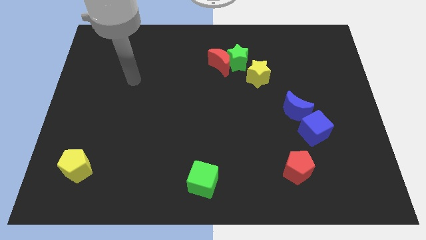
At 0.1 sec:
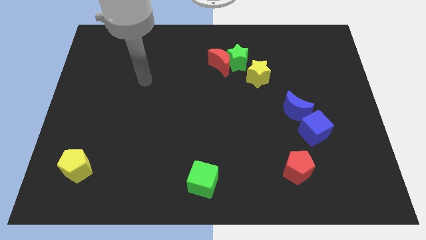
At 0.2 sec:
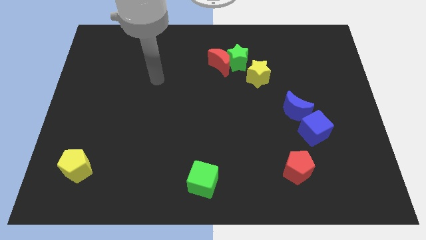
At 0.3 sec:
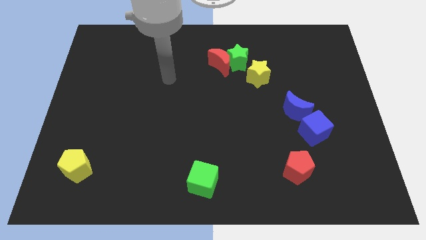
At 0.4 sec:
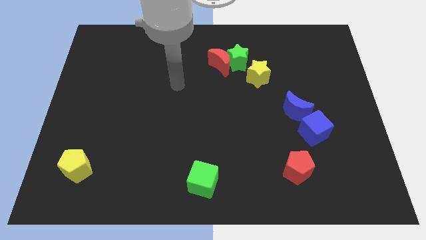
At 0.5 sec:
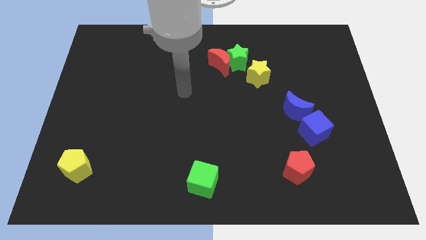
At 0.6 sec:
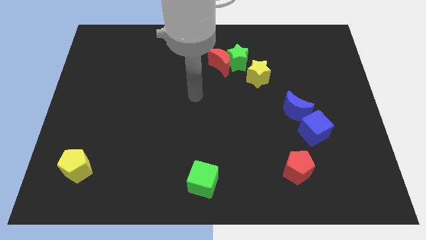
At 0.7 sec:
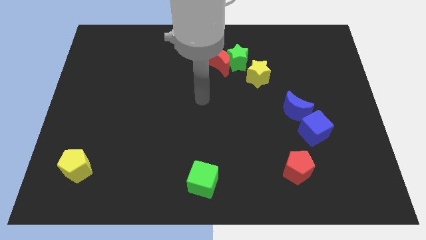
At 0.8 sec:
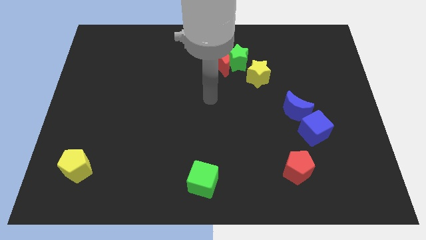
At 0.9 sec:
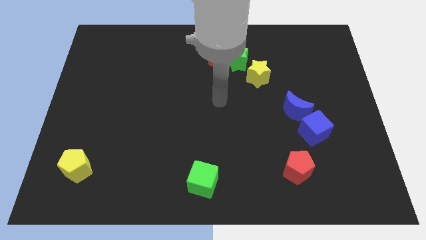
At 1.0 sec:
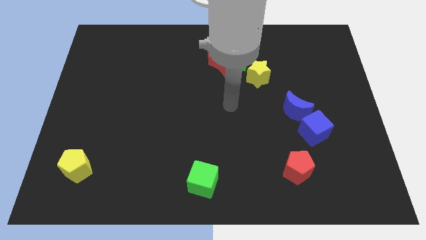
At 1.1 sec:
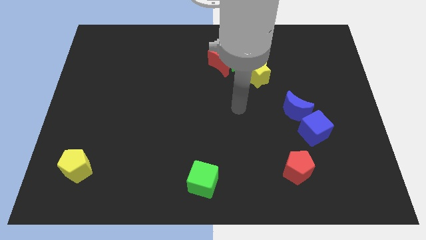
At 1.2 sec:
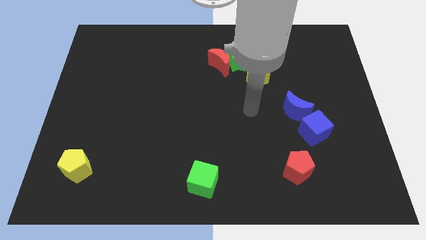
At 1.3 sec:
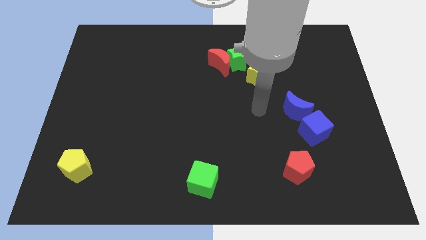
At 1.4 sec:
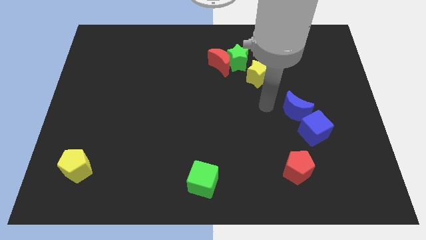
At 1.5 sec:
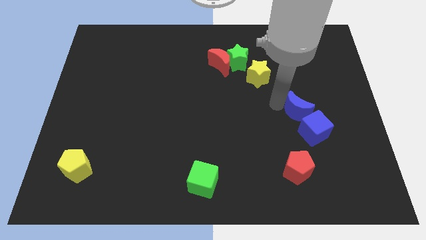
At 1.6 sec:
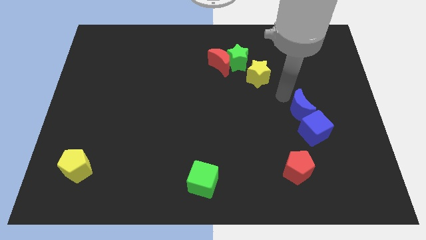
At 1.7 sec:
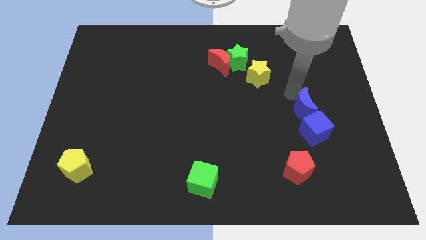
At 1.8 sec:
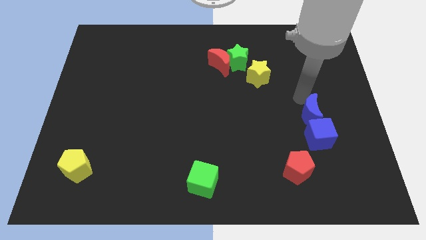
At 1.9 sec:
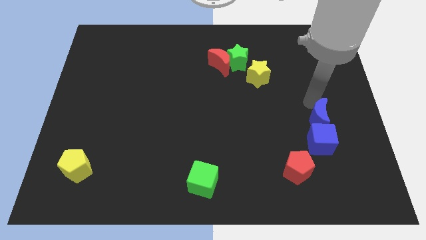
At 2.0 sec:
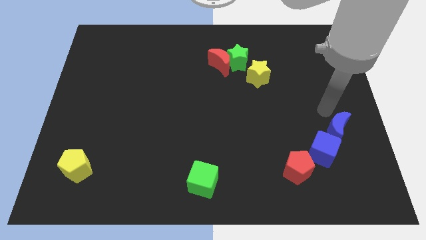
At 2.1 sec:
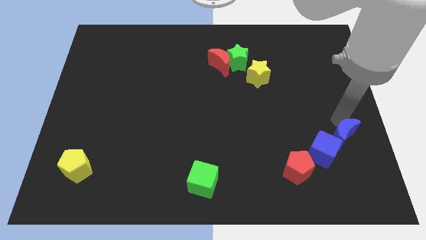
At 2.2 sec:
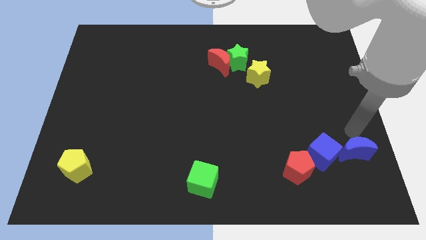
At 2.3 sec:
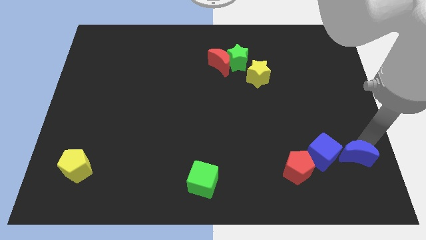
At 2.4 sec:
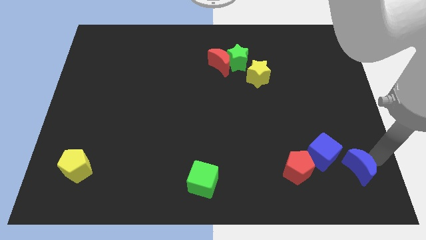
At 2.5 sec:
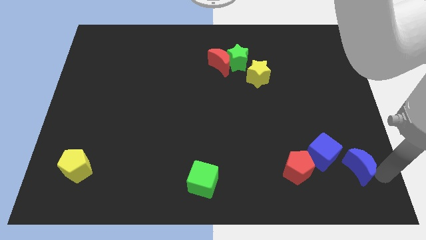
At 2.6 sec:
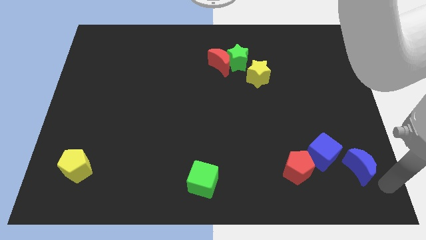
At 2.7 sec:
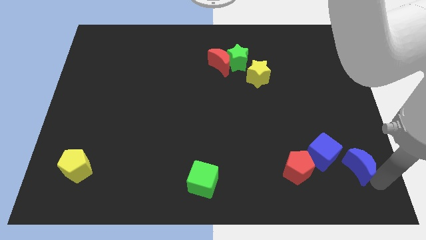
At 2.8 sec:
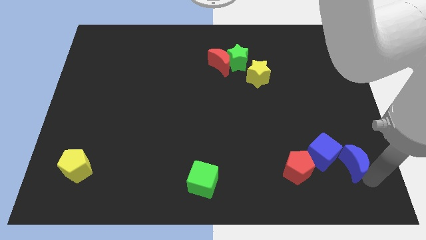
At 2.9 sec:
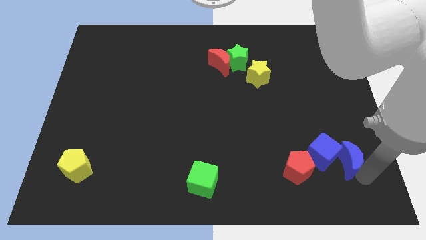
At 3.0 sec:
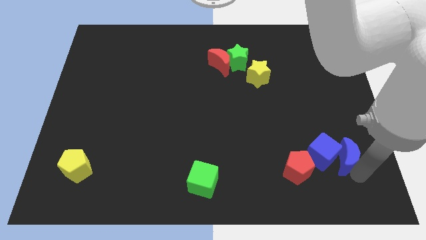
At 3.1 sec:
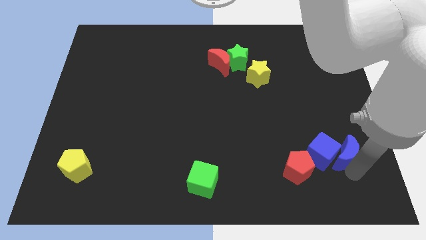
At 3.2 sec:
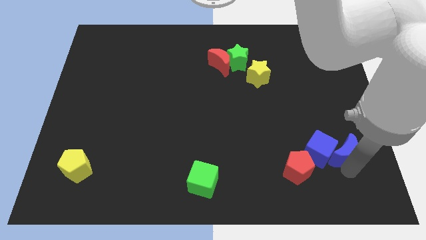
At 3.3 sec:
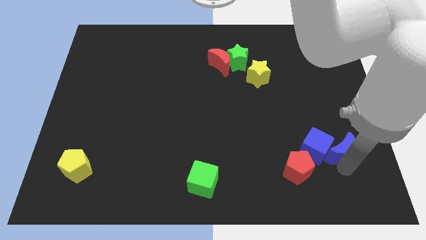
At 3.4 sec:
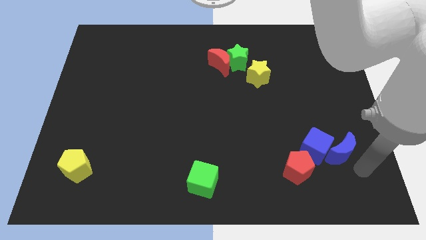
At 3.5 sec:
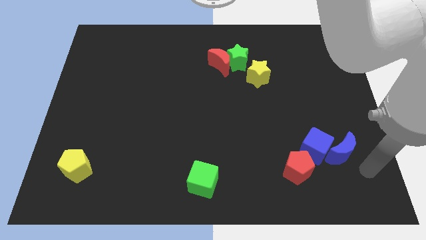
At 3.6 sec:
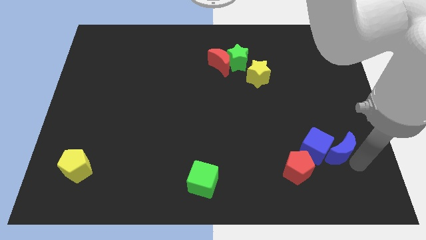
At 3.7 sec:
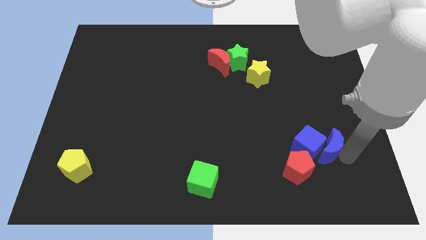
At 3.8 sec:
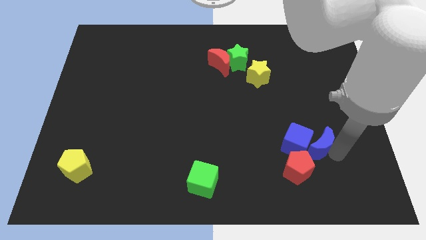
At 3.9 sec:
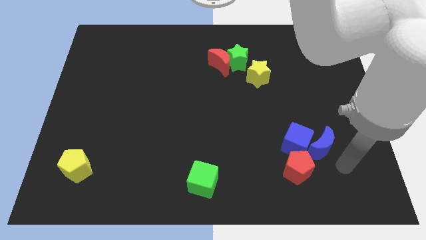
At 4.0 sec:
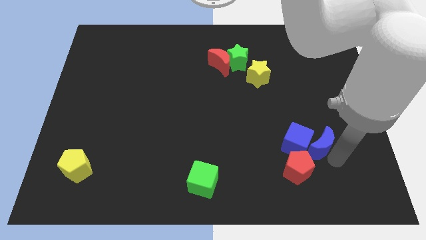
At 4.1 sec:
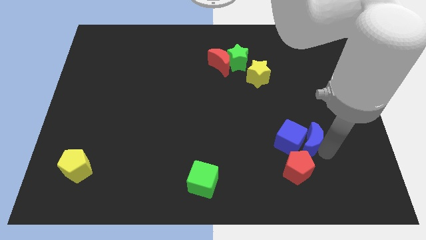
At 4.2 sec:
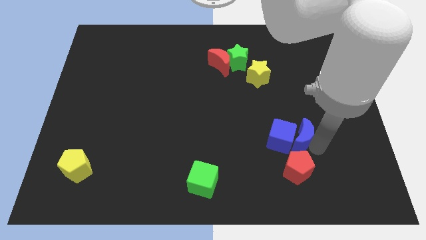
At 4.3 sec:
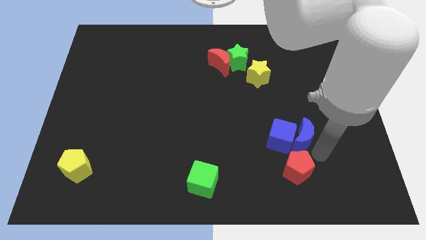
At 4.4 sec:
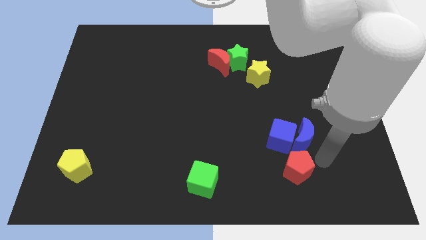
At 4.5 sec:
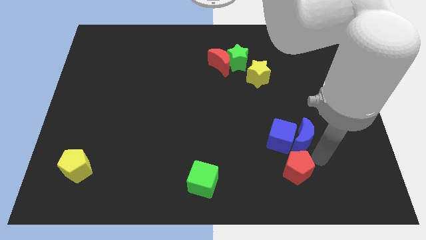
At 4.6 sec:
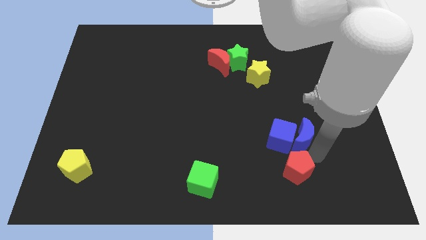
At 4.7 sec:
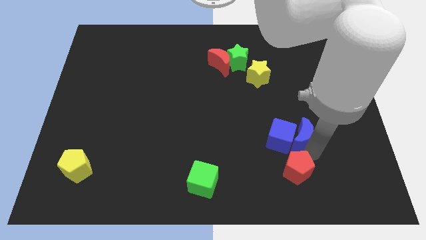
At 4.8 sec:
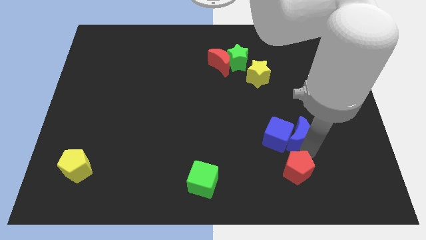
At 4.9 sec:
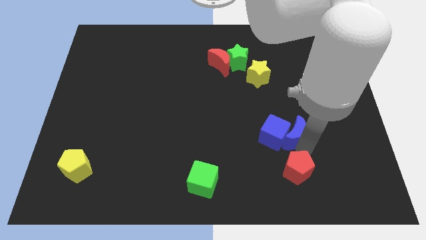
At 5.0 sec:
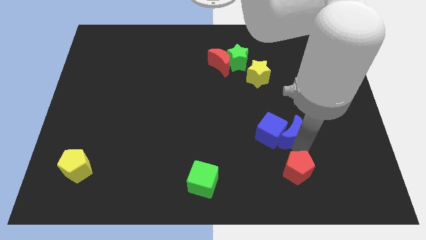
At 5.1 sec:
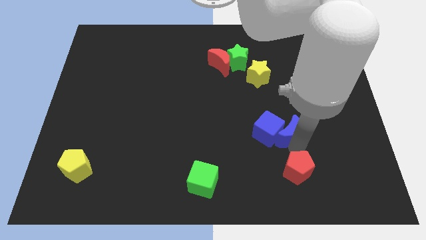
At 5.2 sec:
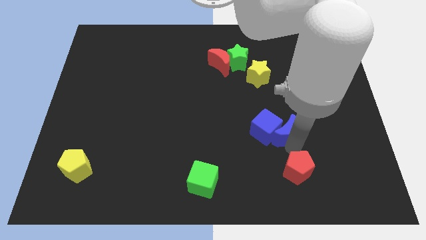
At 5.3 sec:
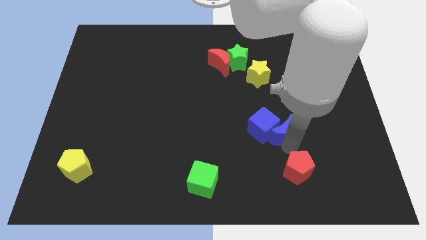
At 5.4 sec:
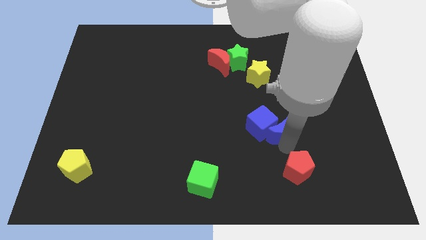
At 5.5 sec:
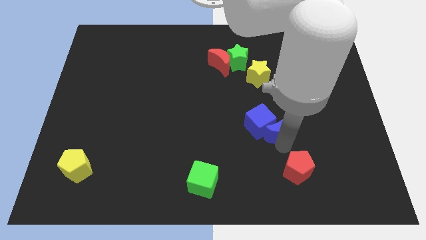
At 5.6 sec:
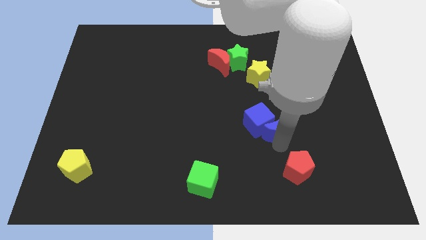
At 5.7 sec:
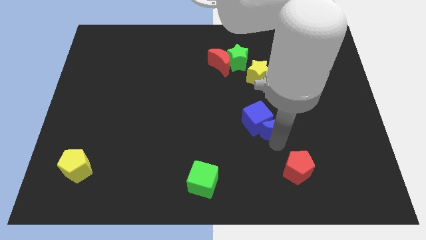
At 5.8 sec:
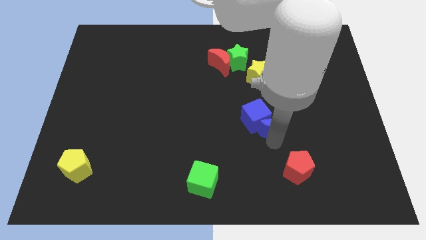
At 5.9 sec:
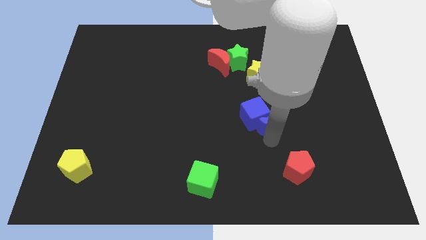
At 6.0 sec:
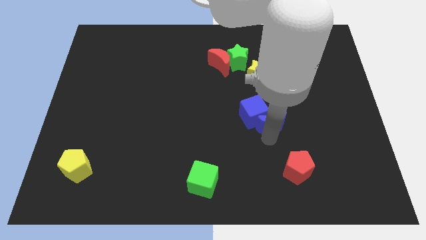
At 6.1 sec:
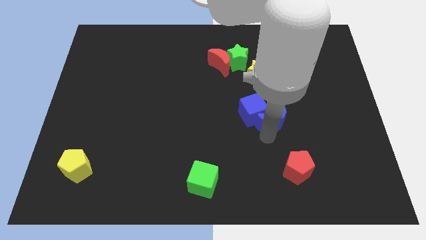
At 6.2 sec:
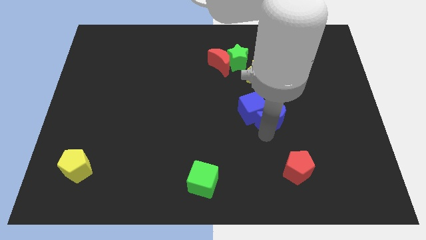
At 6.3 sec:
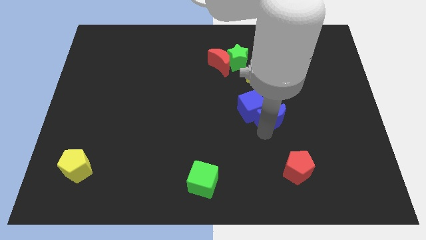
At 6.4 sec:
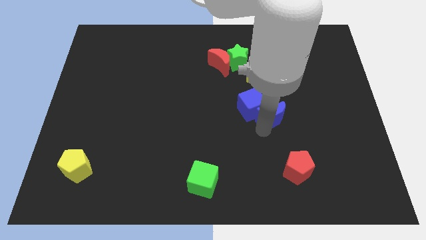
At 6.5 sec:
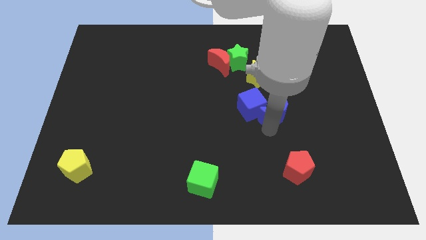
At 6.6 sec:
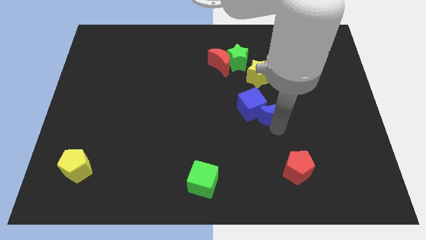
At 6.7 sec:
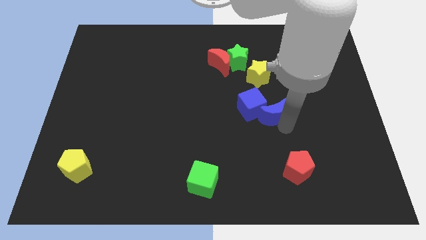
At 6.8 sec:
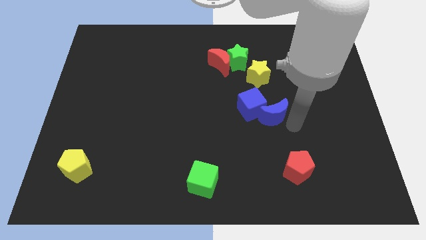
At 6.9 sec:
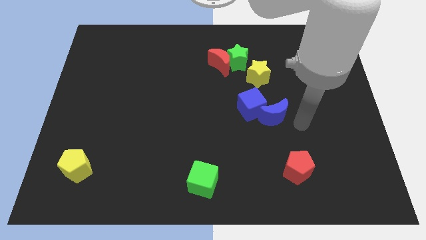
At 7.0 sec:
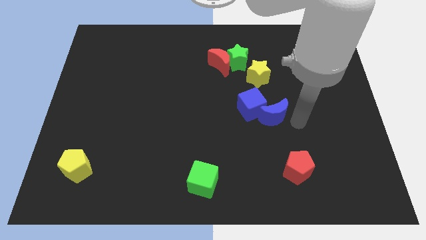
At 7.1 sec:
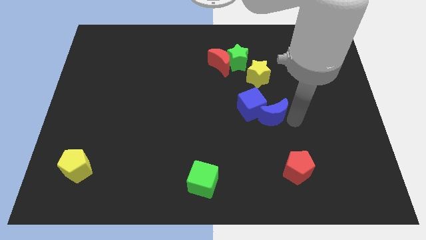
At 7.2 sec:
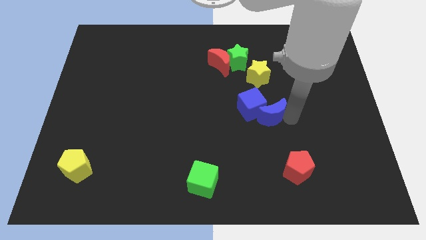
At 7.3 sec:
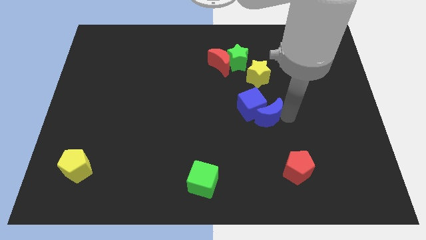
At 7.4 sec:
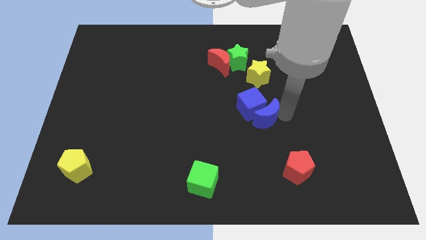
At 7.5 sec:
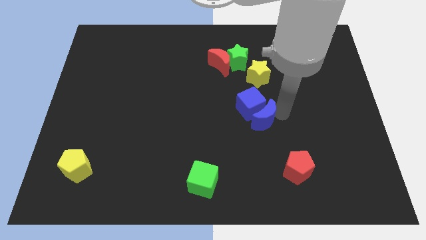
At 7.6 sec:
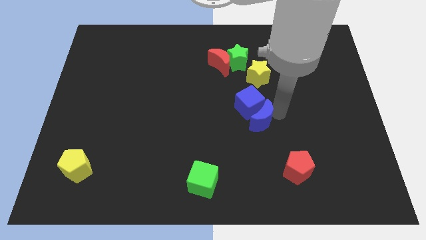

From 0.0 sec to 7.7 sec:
push the blue moon to the center of the board
